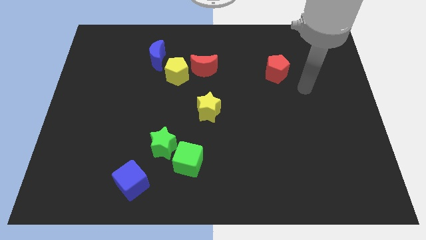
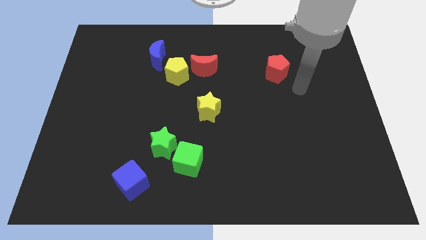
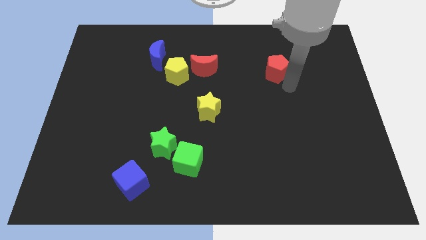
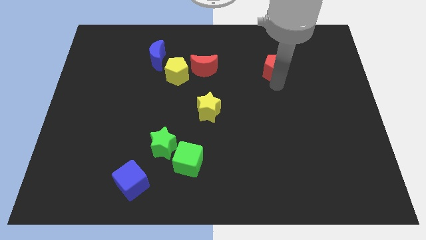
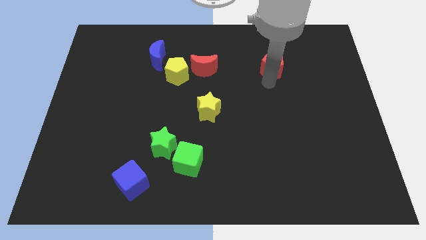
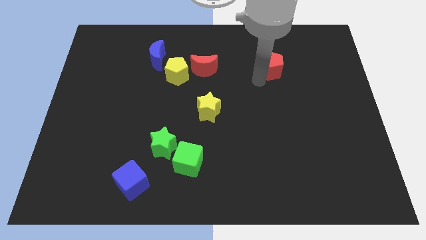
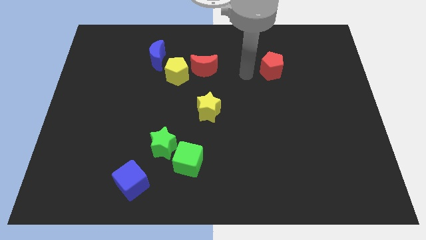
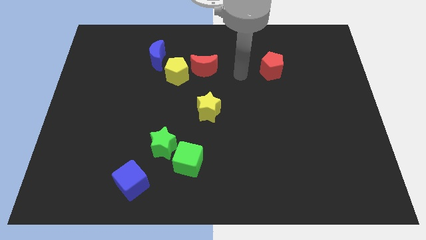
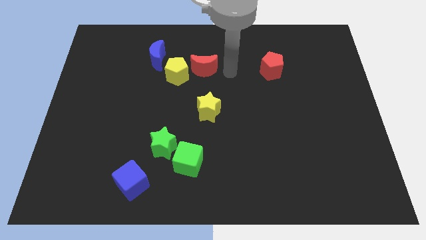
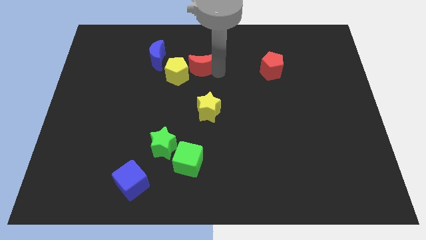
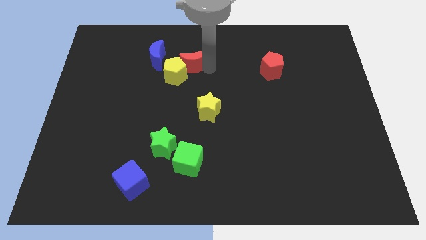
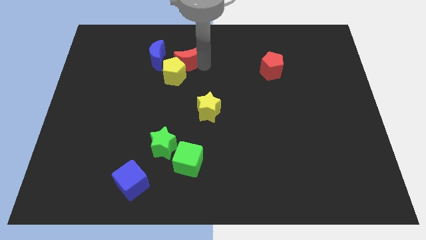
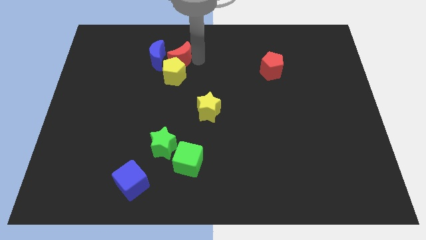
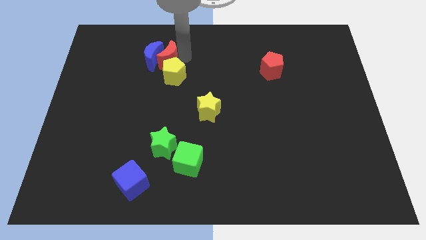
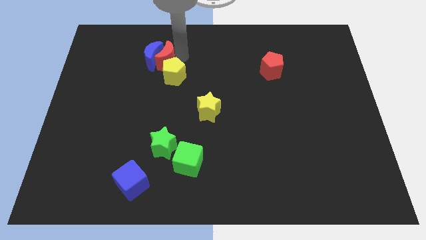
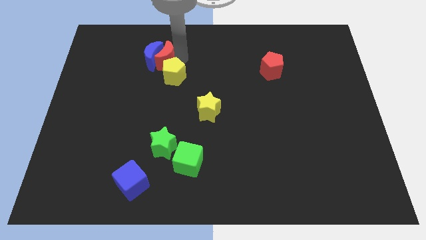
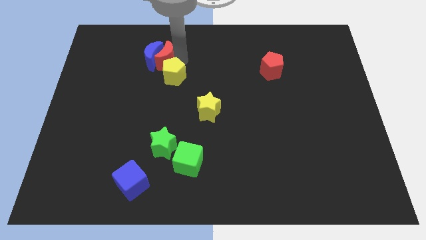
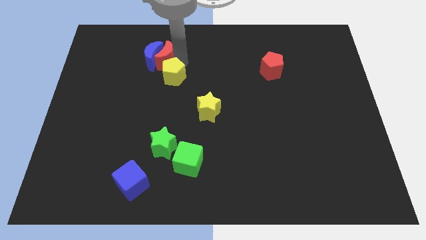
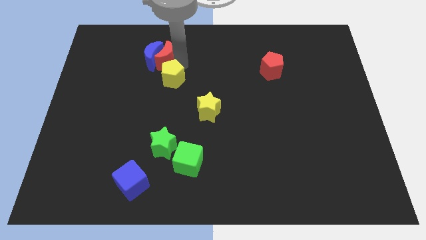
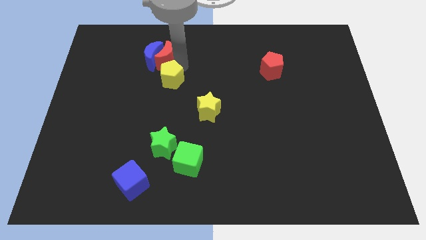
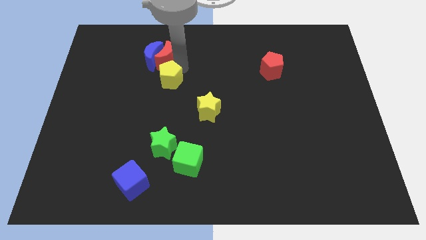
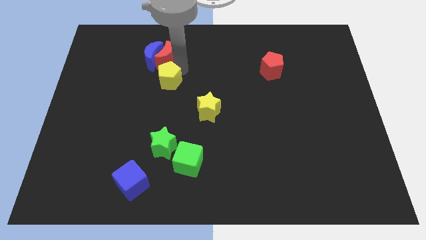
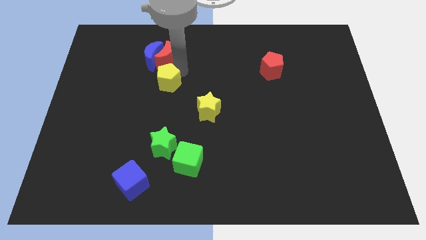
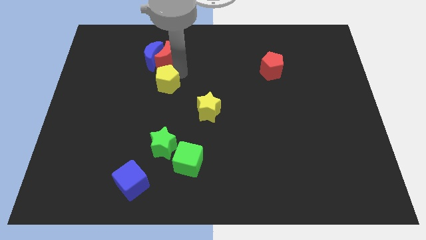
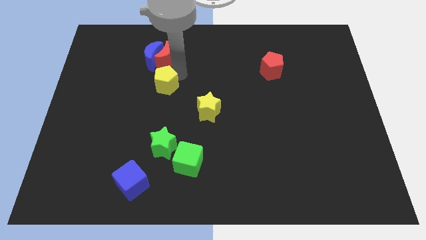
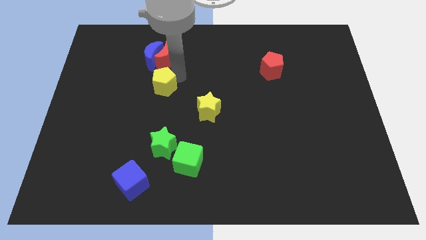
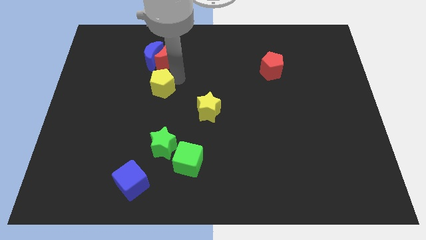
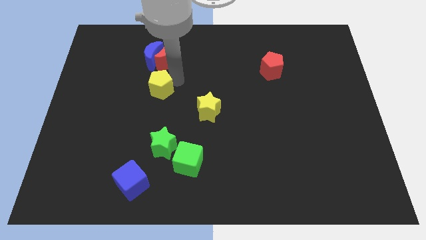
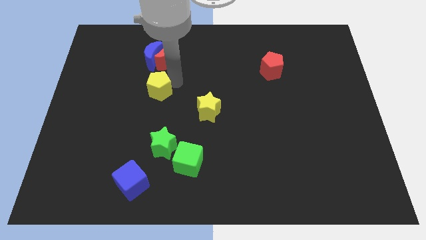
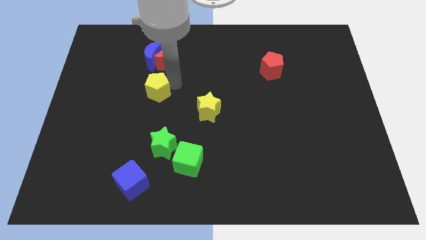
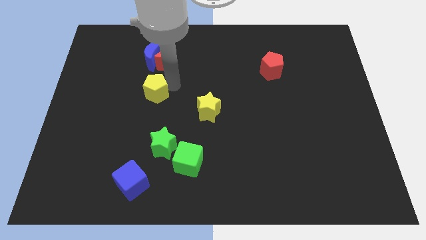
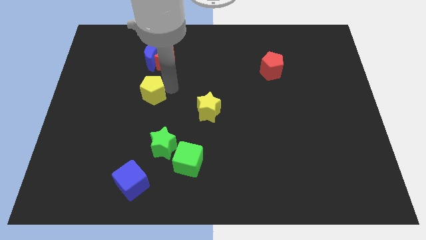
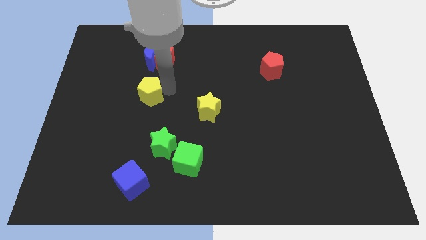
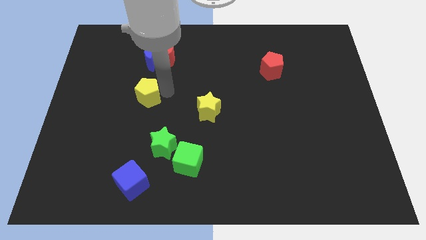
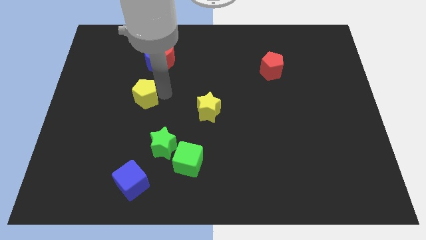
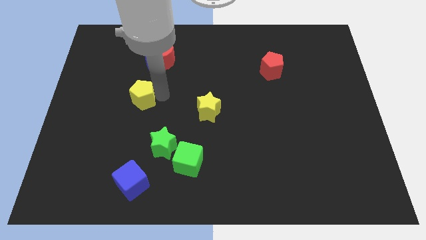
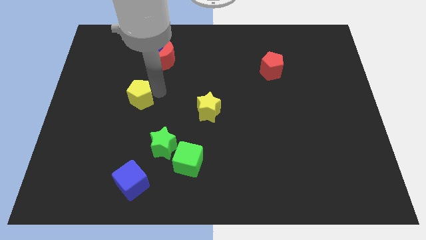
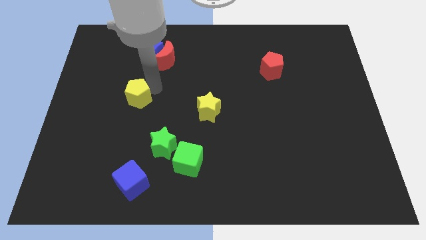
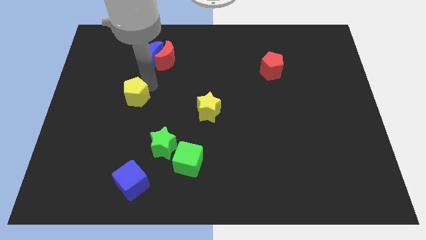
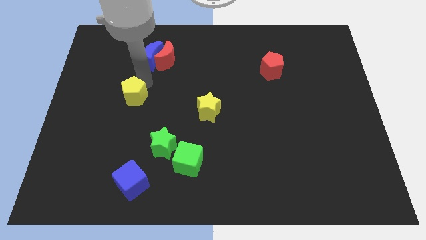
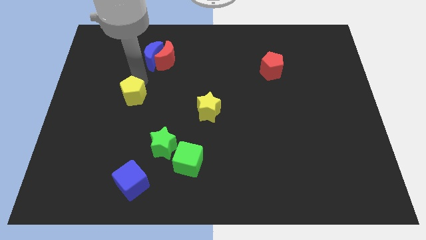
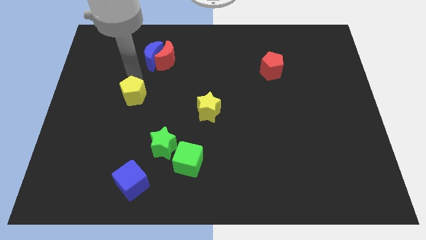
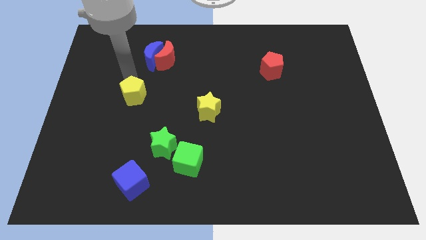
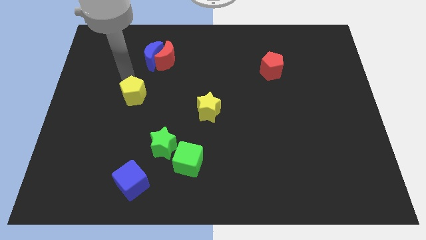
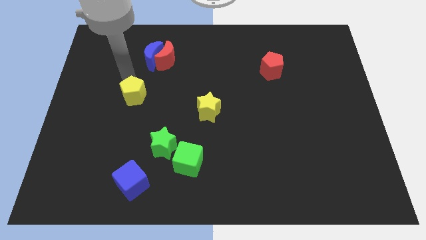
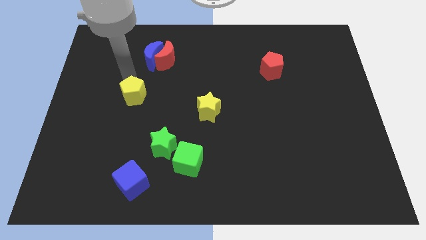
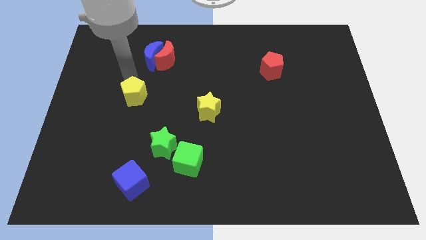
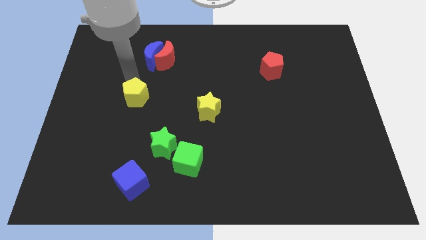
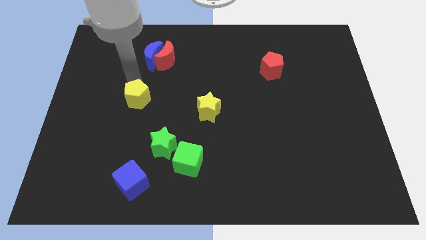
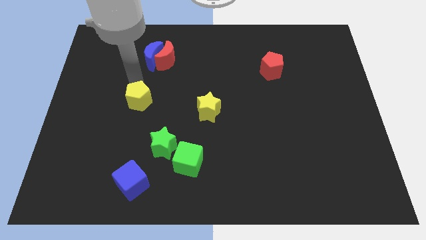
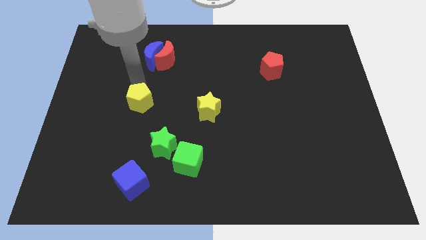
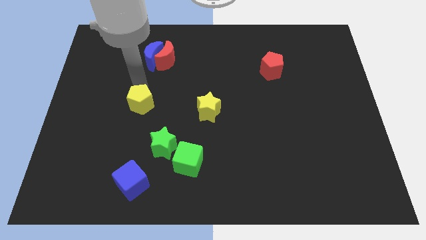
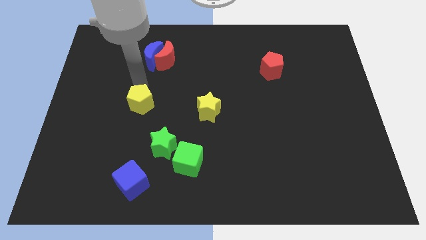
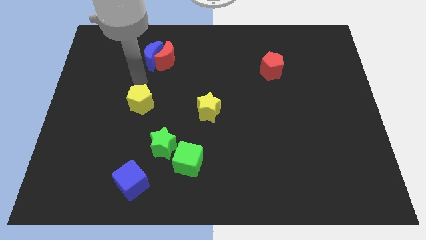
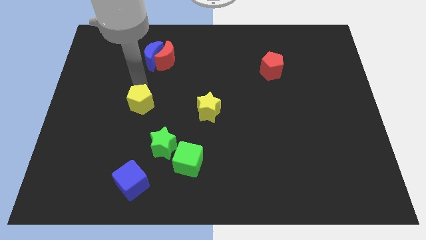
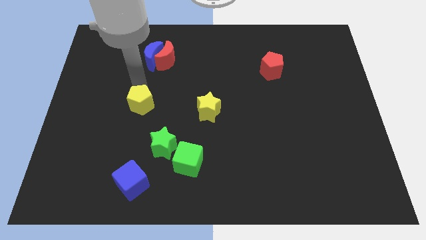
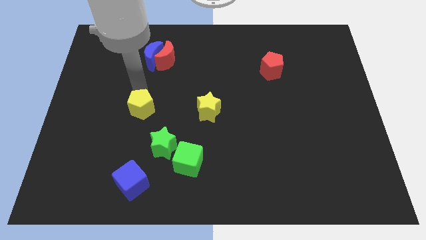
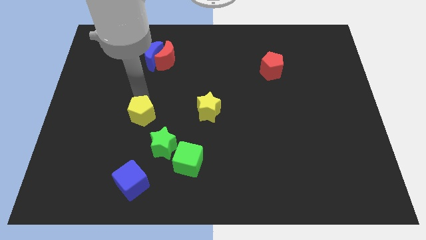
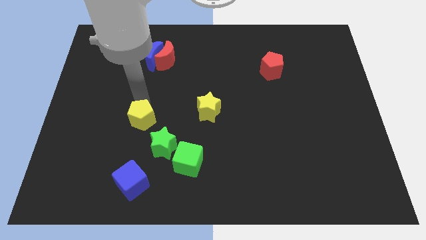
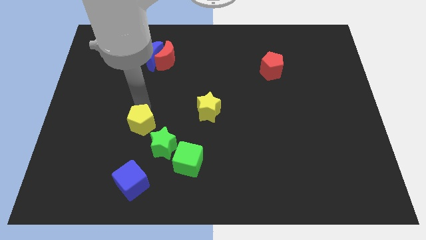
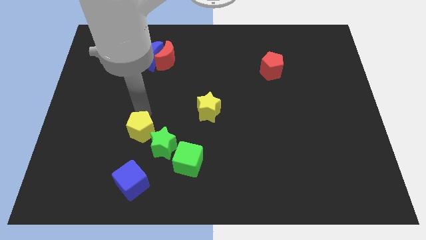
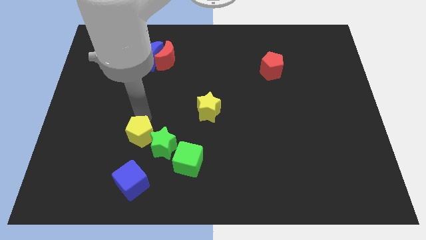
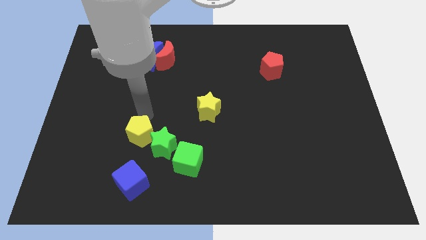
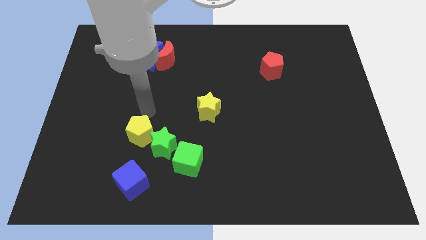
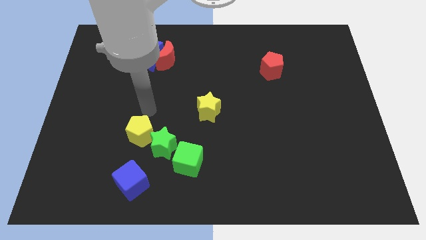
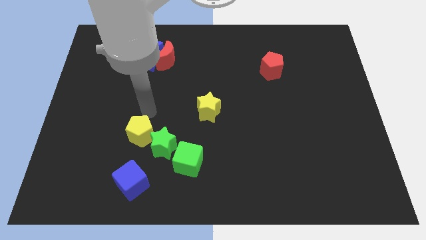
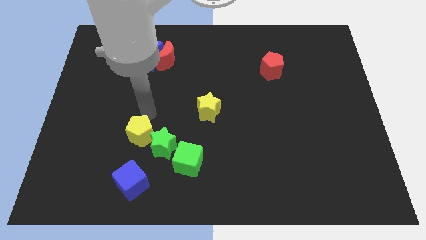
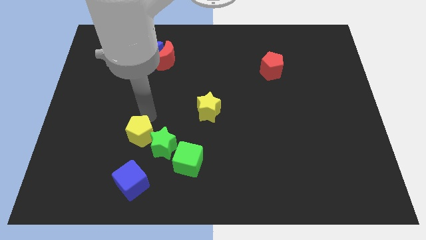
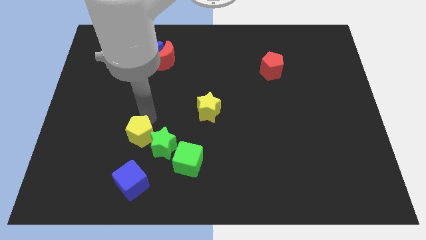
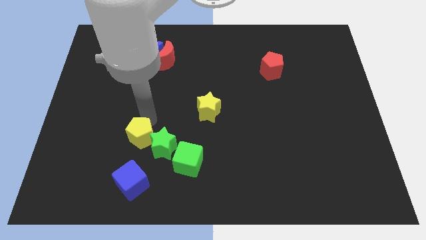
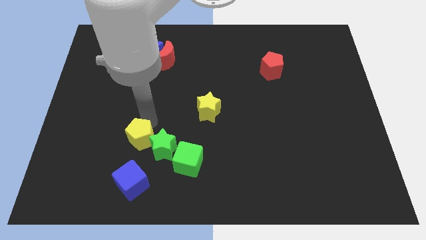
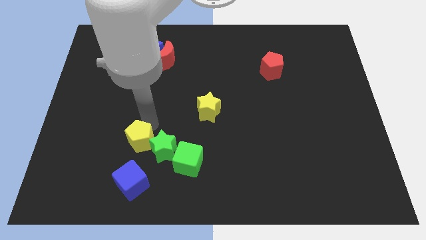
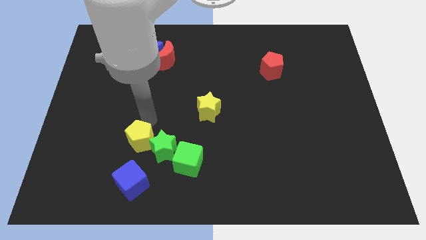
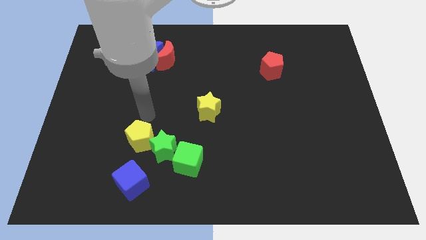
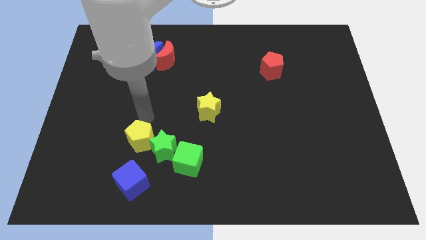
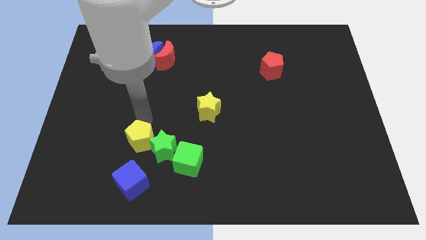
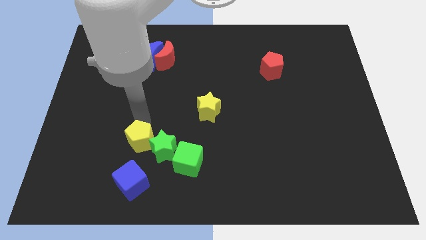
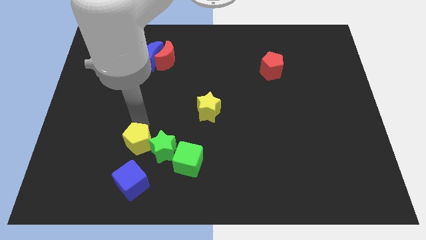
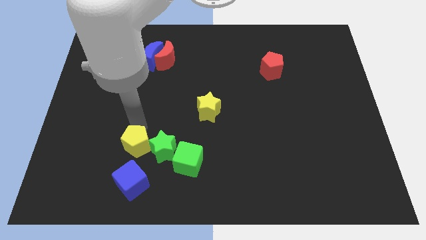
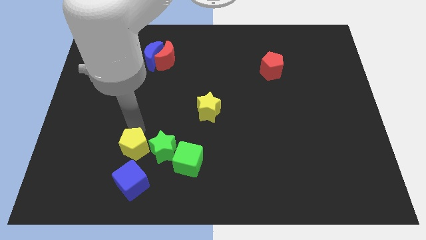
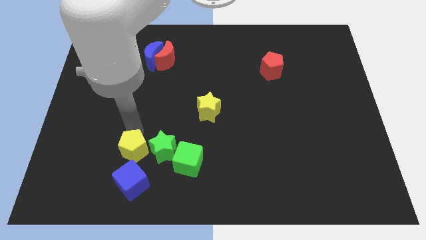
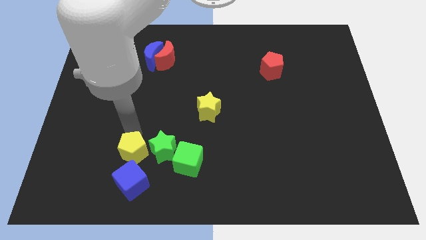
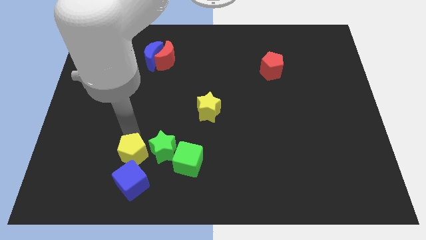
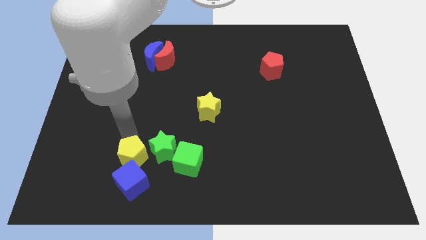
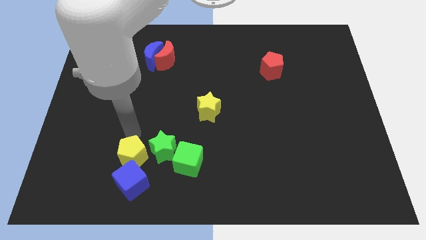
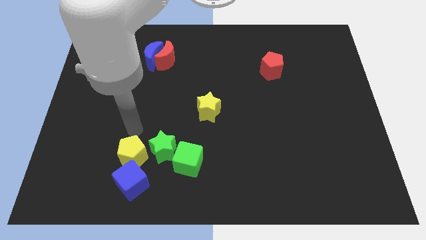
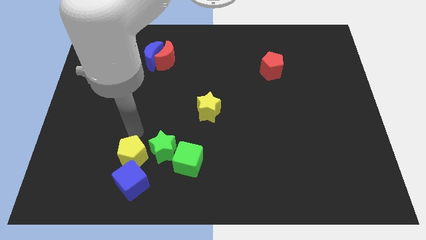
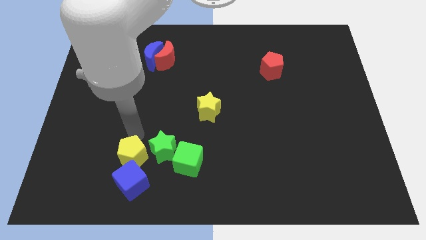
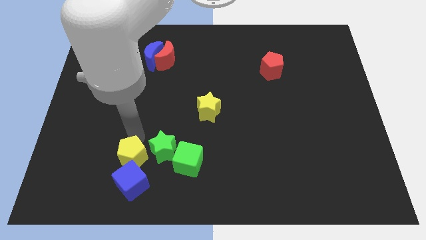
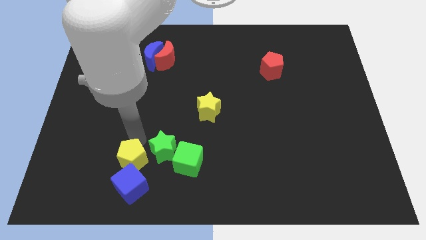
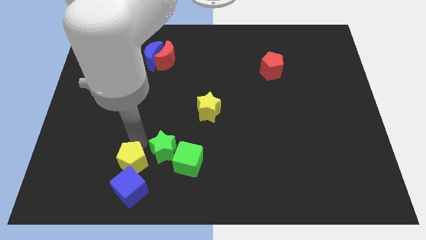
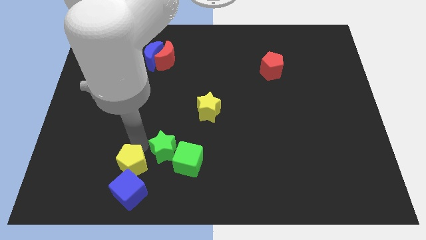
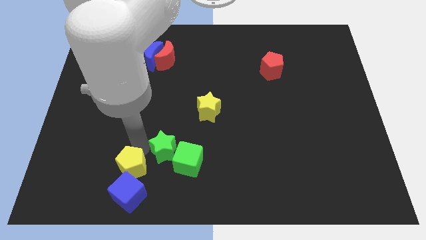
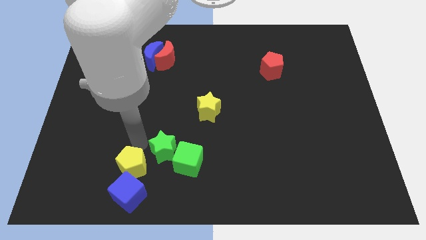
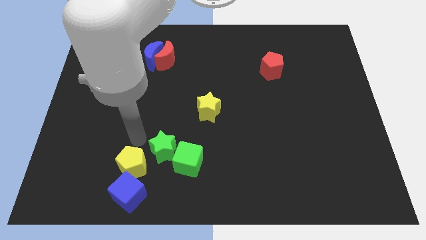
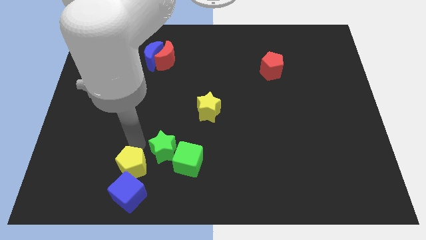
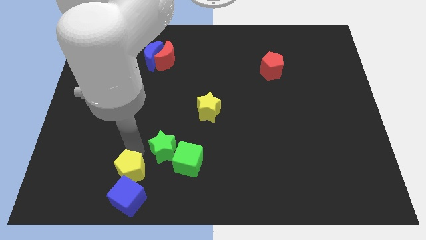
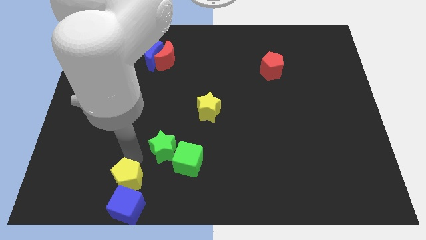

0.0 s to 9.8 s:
slide the yellow pentagon close to the blue cube
